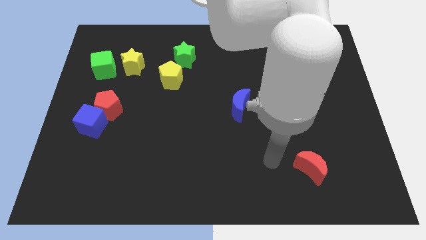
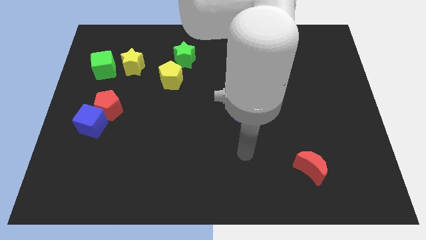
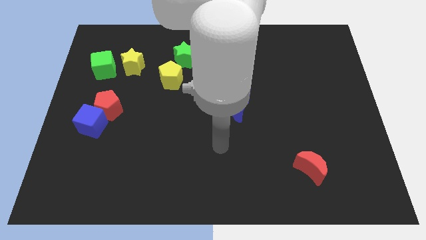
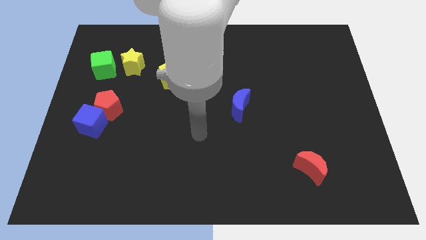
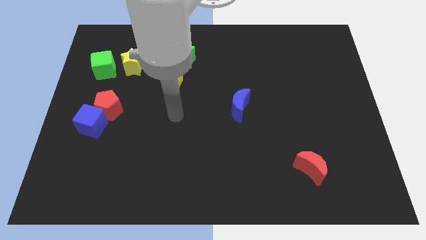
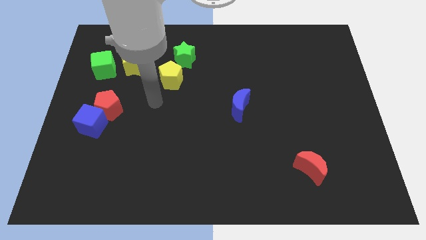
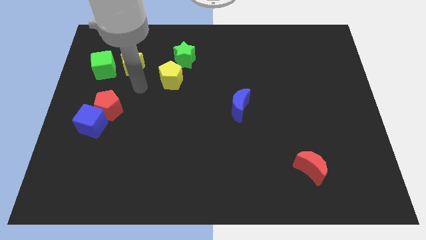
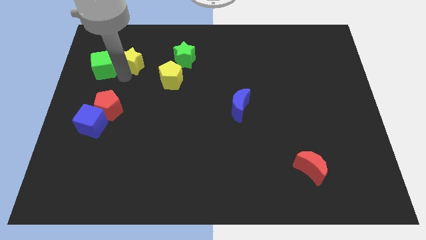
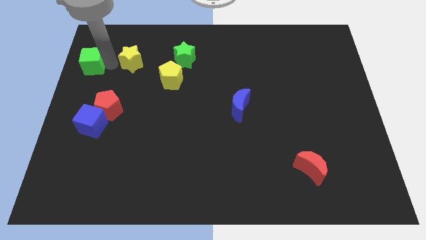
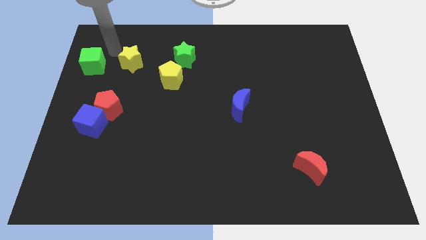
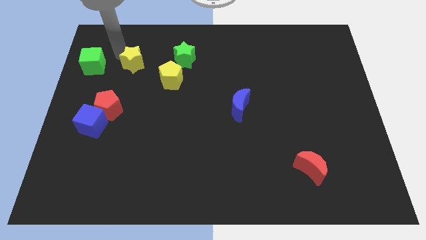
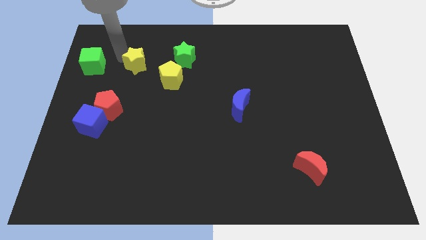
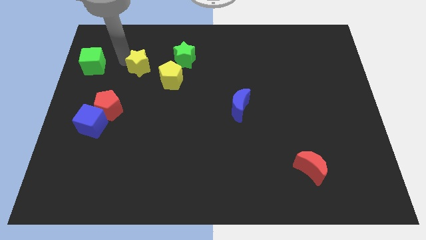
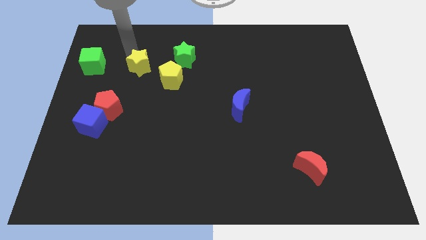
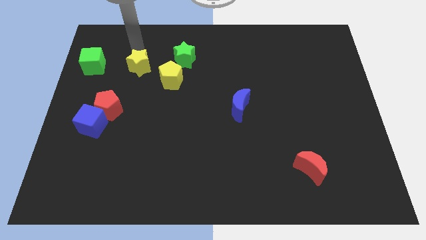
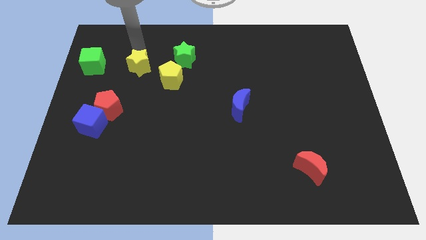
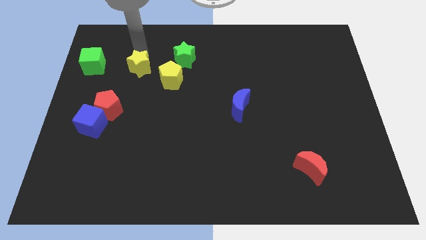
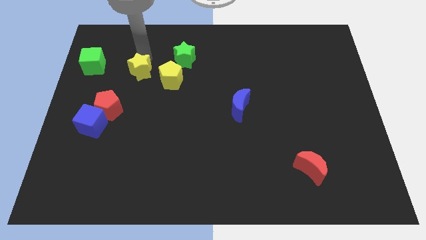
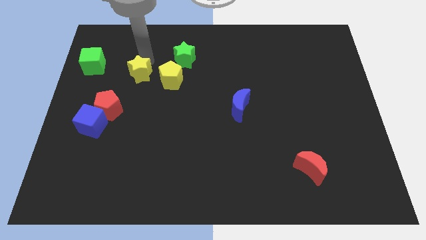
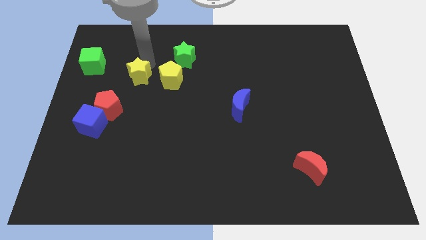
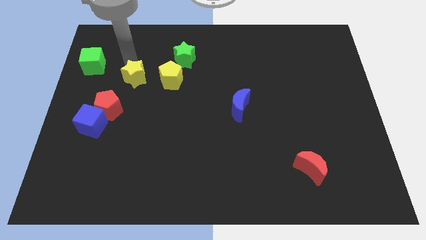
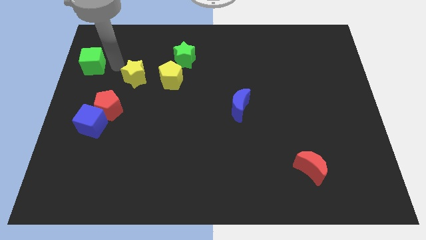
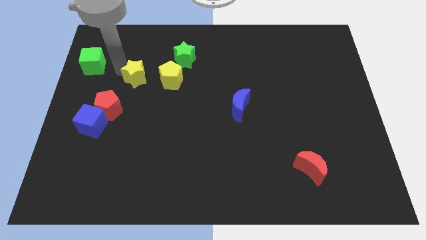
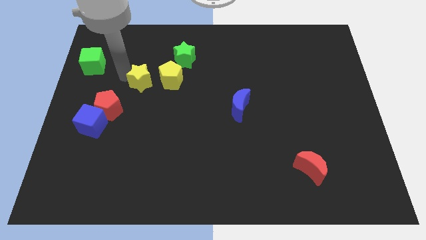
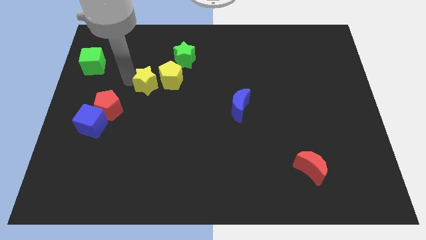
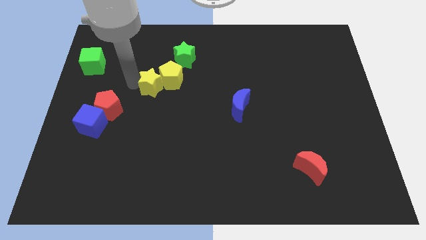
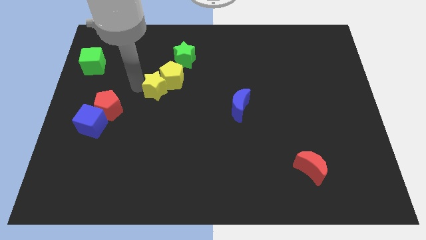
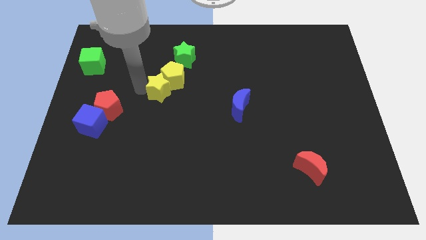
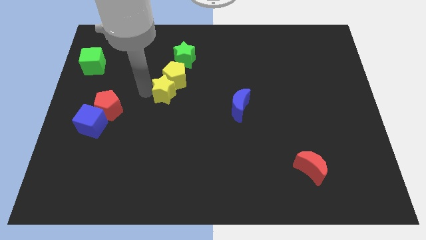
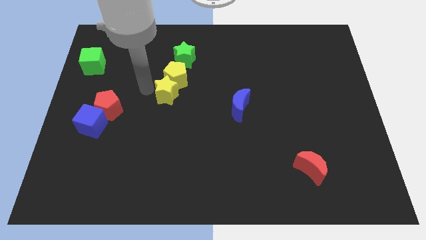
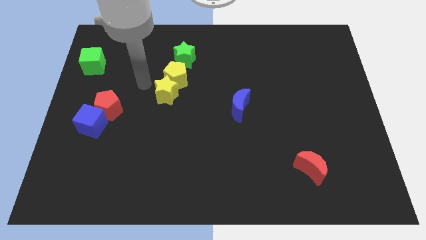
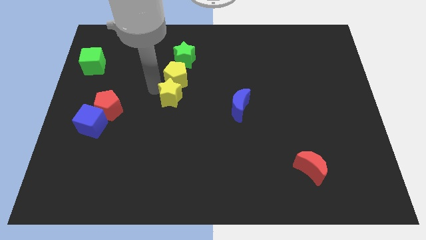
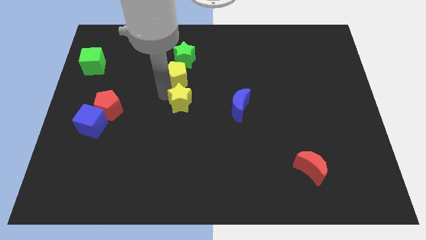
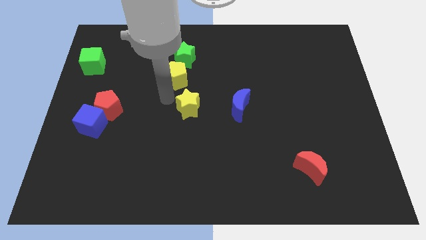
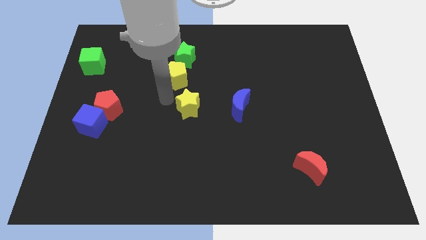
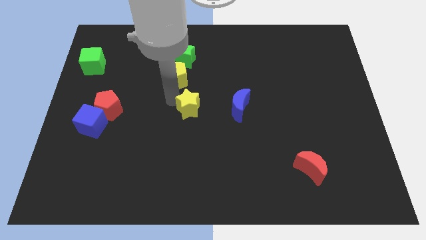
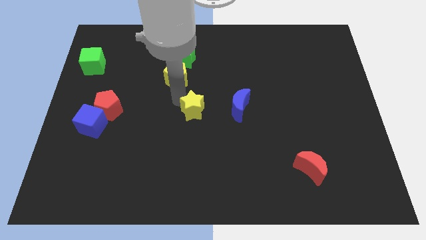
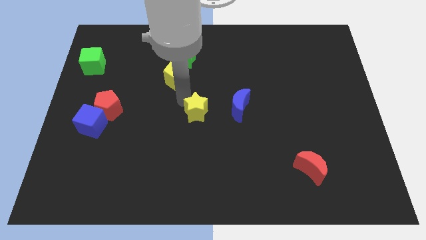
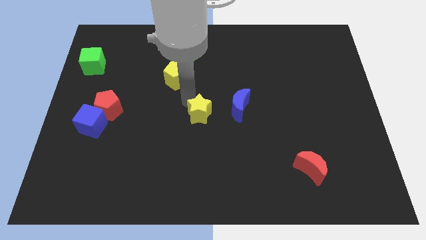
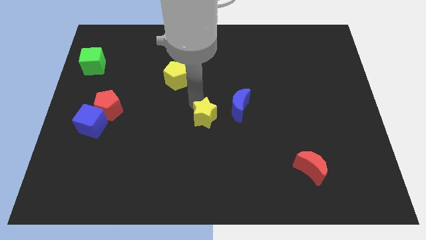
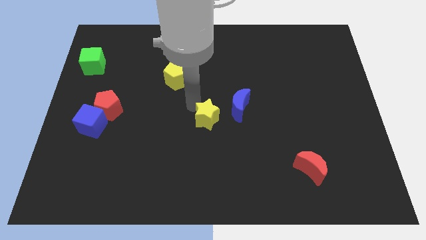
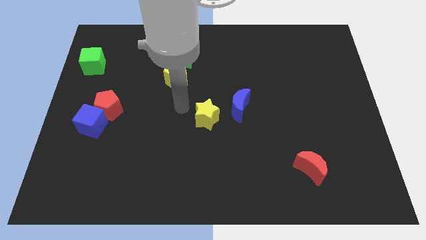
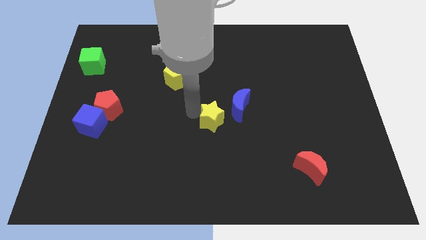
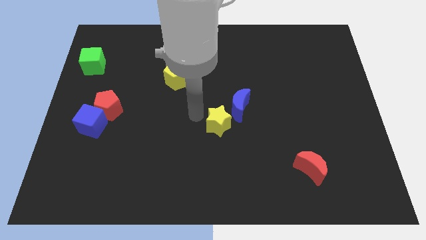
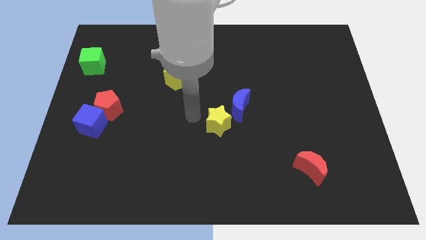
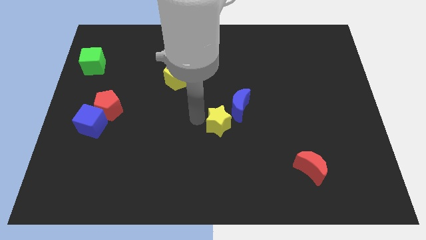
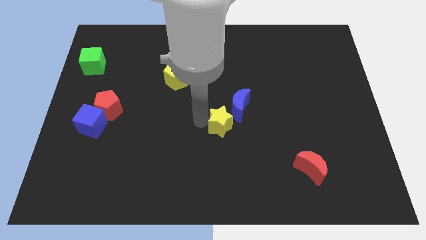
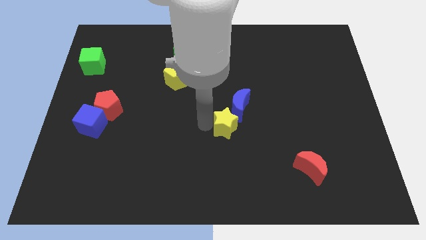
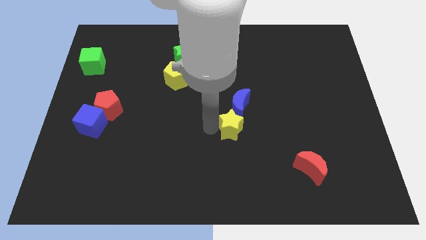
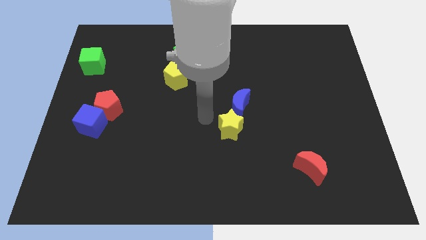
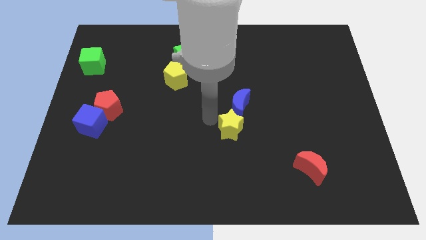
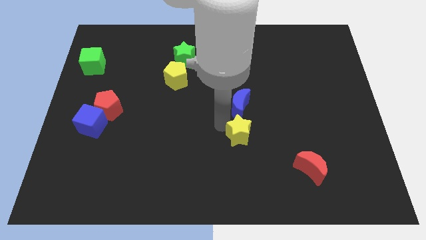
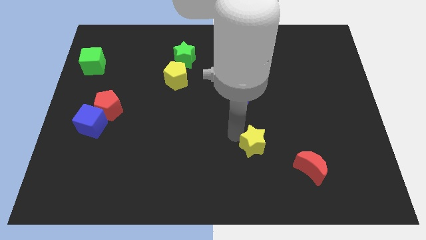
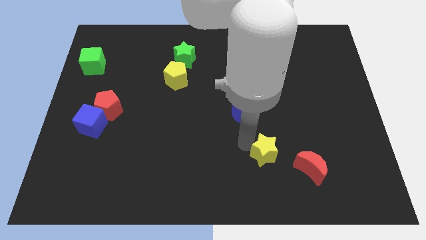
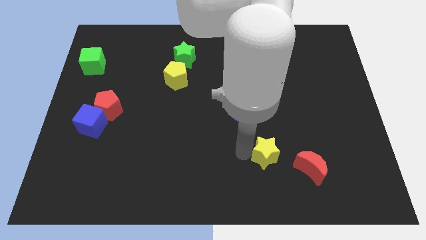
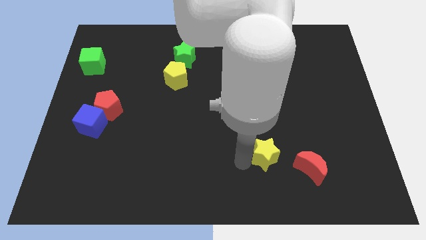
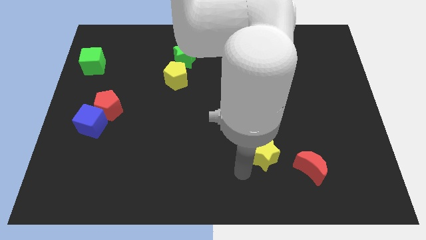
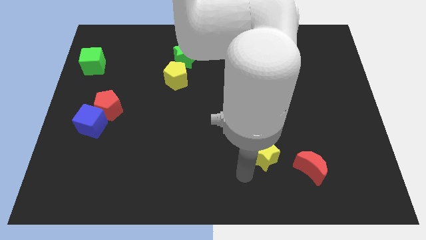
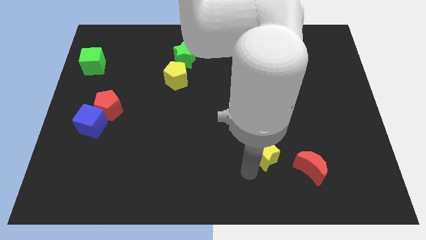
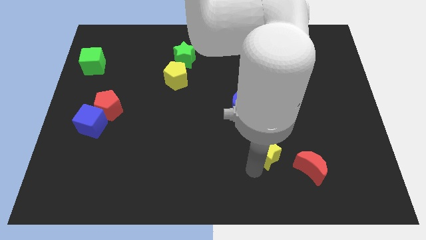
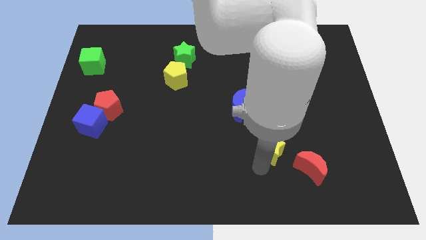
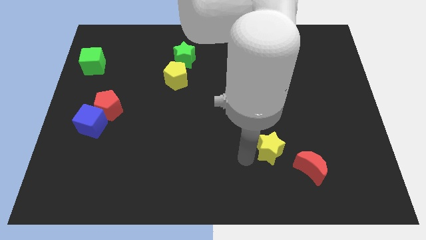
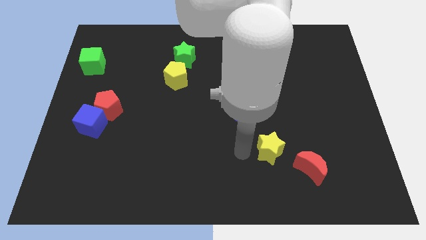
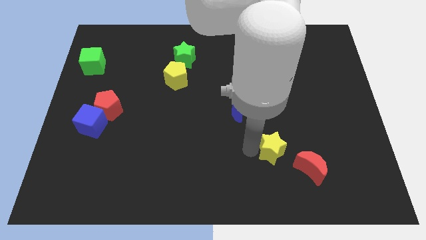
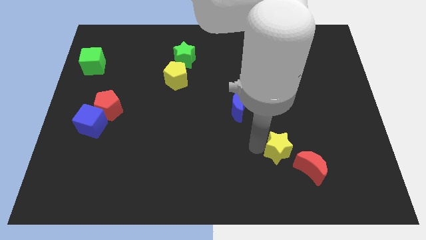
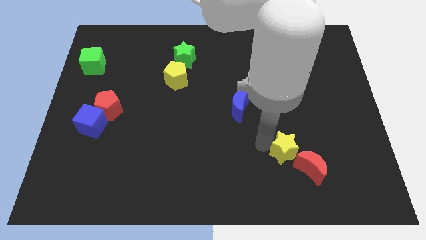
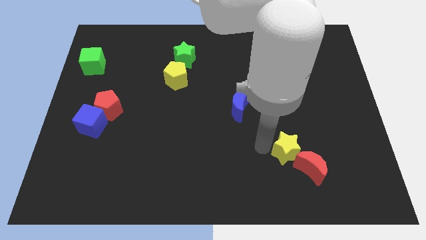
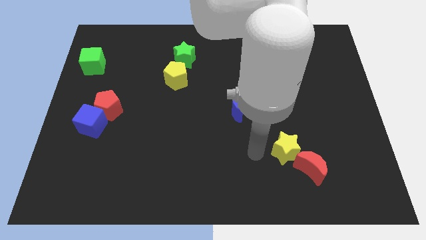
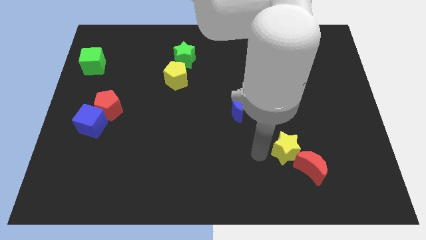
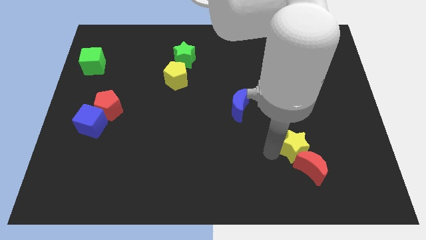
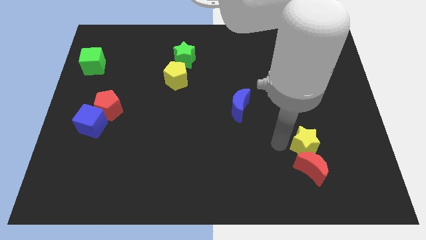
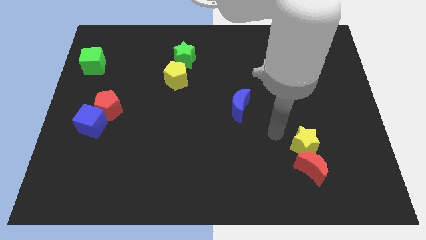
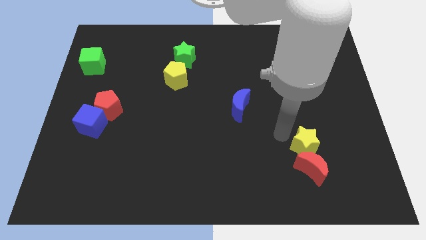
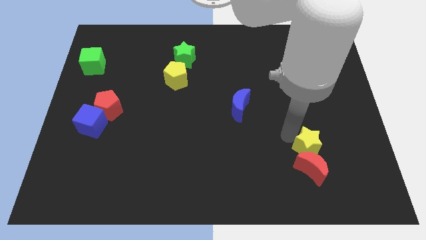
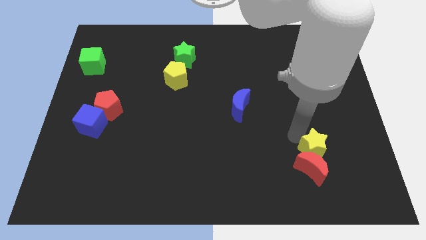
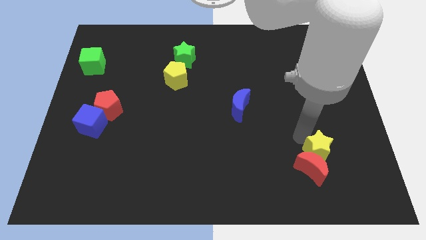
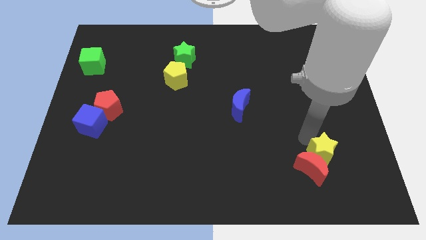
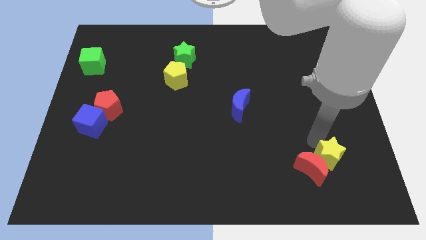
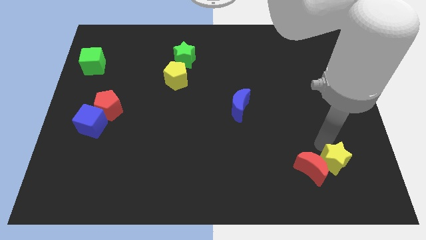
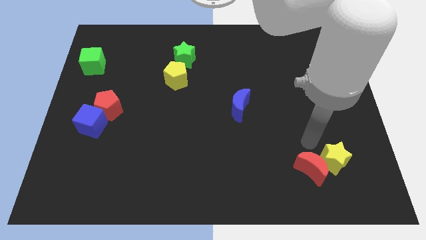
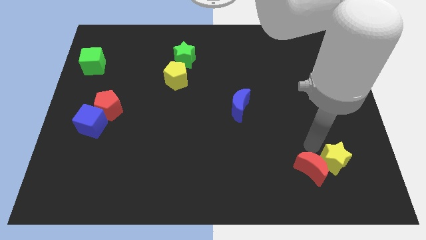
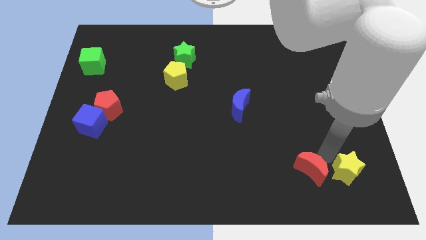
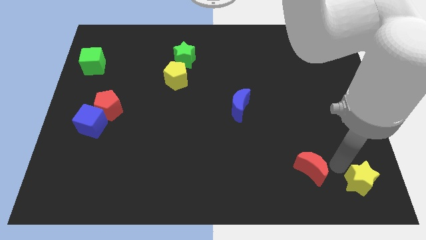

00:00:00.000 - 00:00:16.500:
slide the yellow star to the lower right corner
